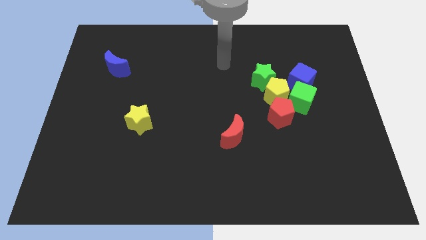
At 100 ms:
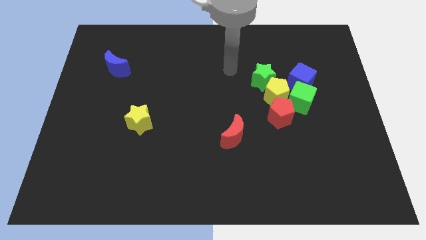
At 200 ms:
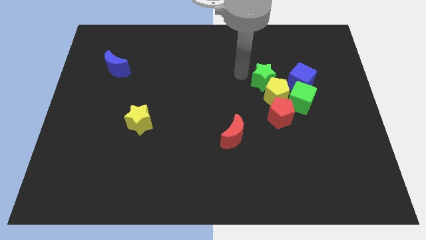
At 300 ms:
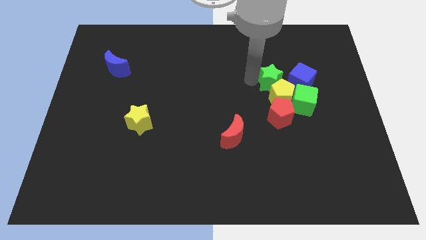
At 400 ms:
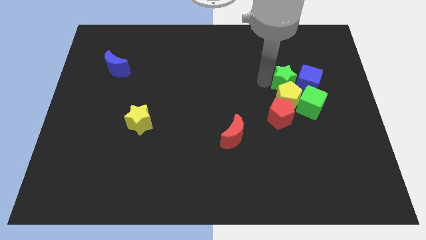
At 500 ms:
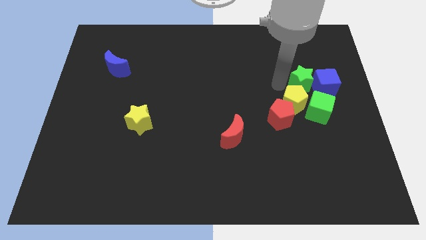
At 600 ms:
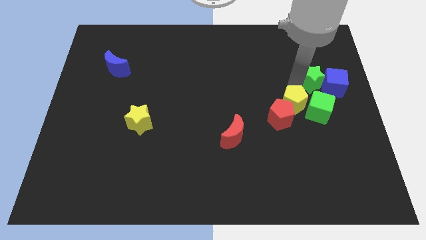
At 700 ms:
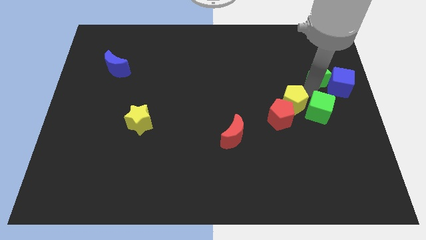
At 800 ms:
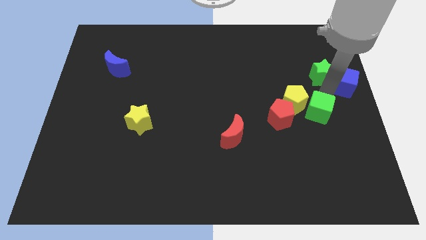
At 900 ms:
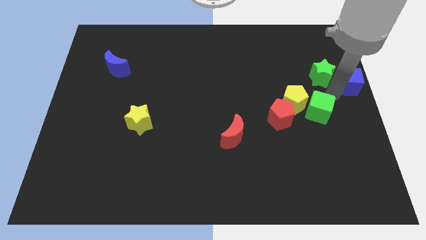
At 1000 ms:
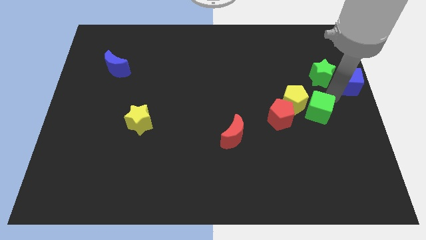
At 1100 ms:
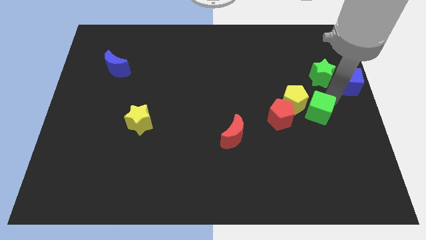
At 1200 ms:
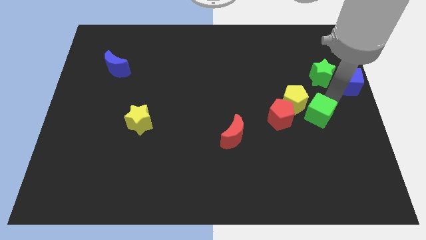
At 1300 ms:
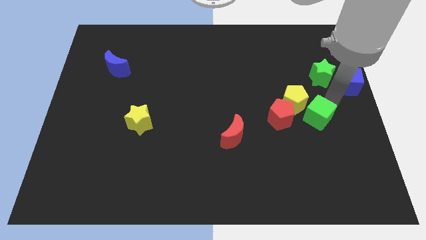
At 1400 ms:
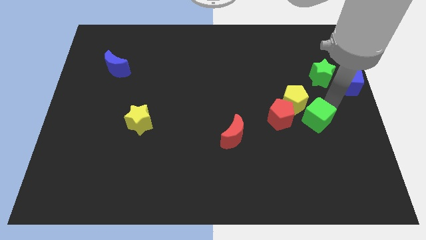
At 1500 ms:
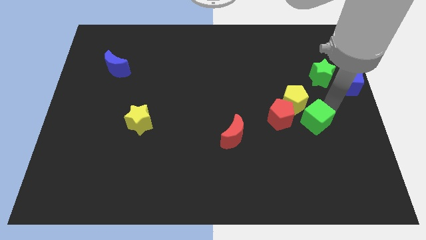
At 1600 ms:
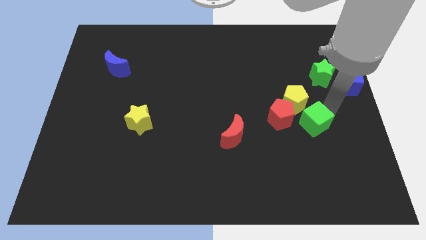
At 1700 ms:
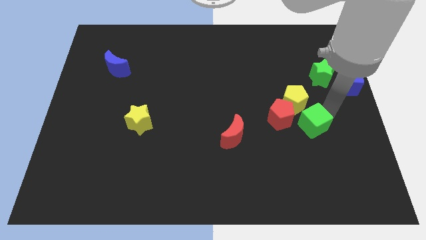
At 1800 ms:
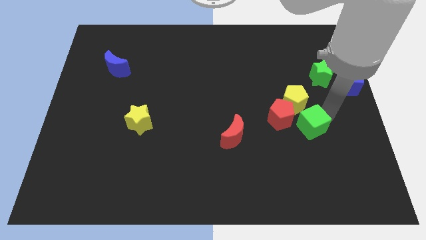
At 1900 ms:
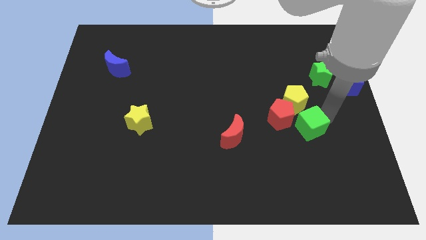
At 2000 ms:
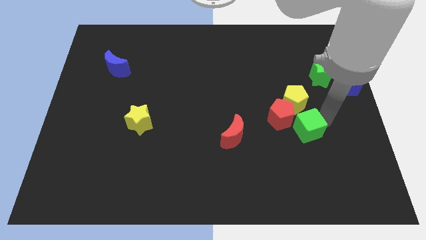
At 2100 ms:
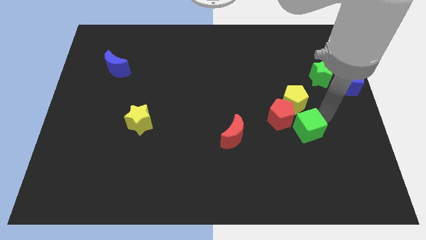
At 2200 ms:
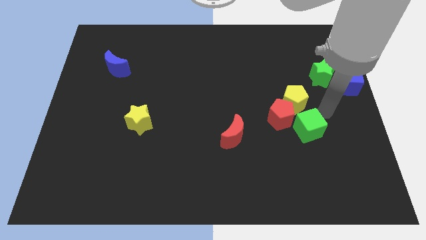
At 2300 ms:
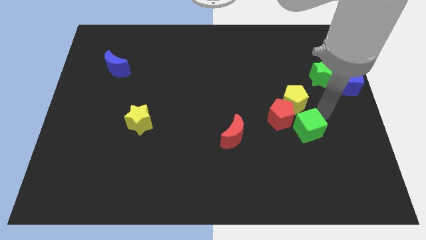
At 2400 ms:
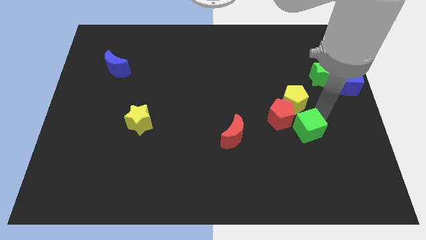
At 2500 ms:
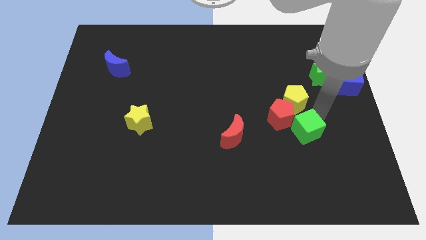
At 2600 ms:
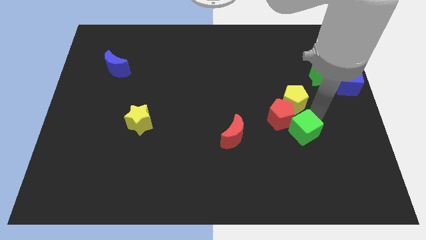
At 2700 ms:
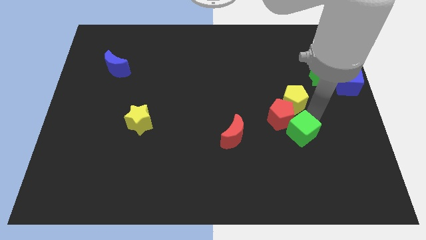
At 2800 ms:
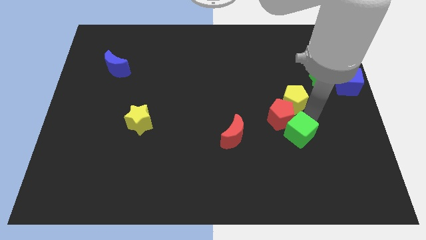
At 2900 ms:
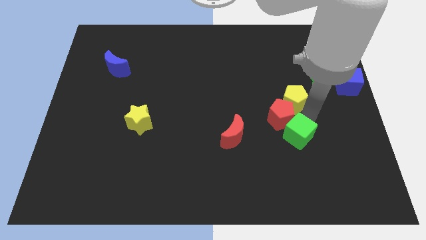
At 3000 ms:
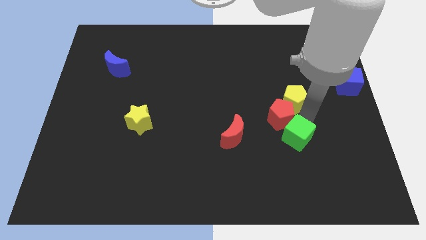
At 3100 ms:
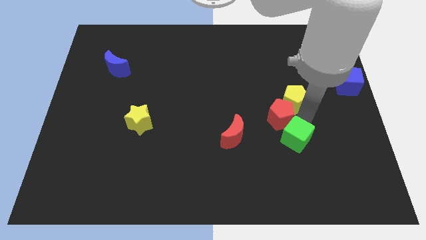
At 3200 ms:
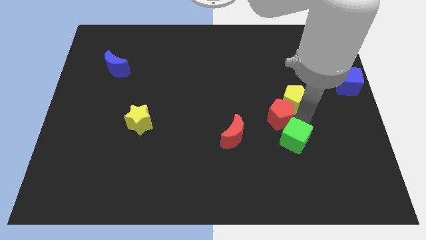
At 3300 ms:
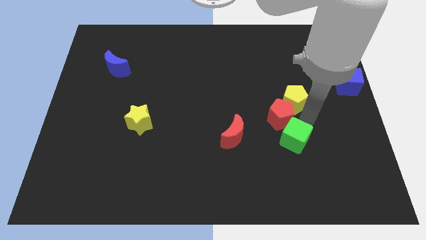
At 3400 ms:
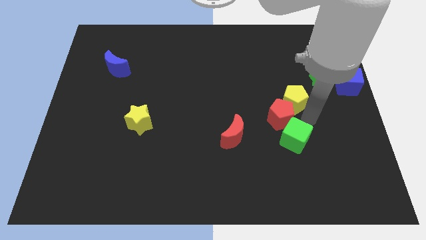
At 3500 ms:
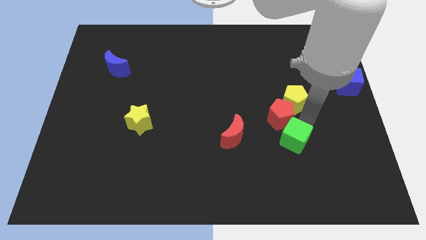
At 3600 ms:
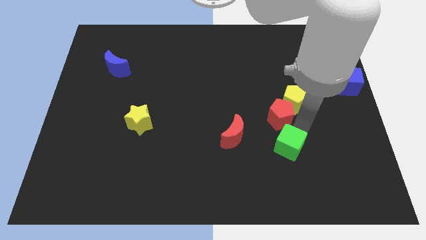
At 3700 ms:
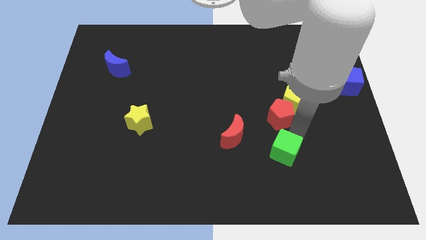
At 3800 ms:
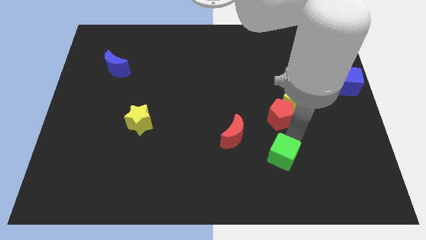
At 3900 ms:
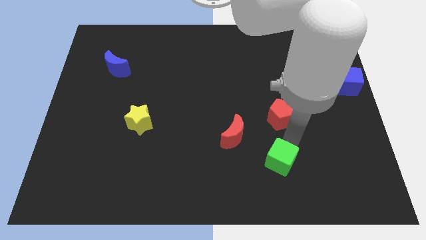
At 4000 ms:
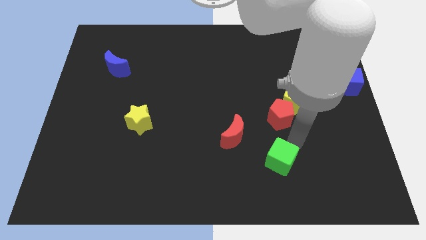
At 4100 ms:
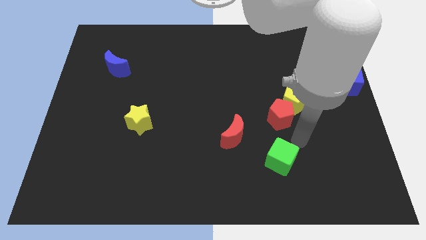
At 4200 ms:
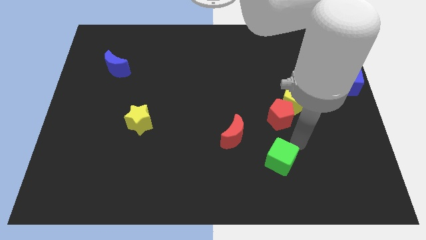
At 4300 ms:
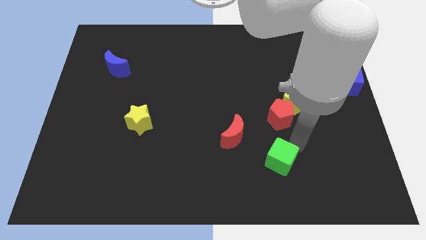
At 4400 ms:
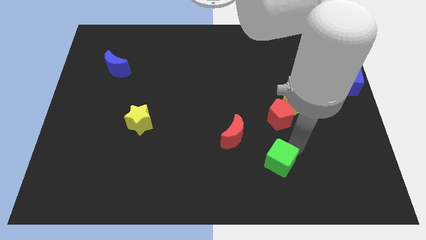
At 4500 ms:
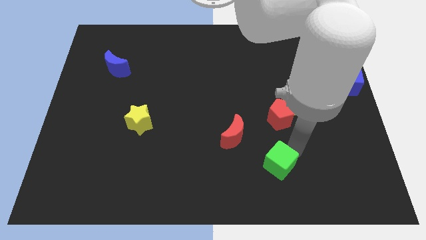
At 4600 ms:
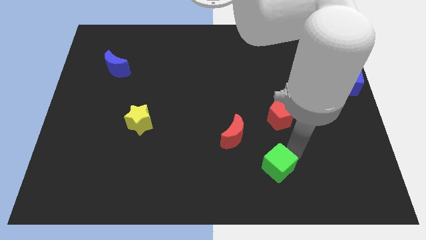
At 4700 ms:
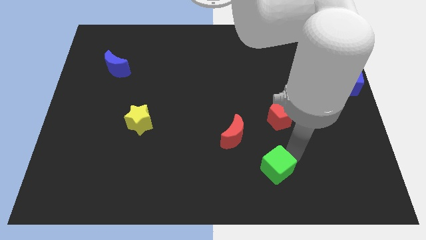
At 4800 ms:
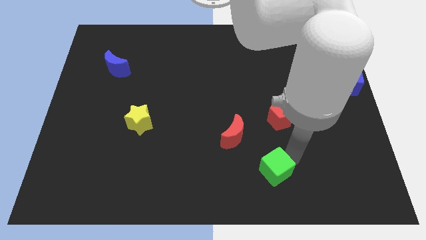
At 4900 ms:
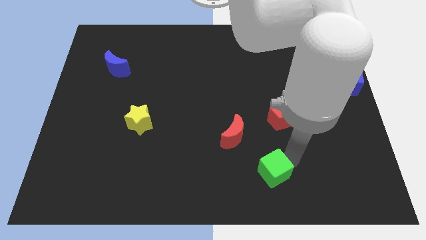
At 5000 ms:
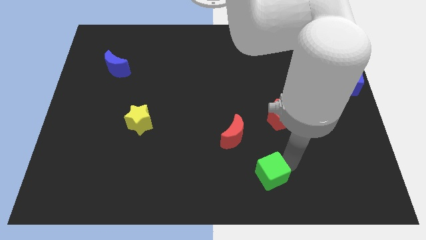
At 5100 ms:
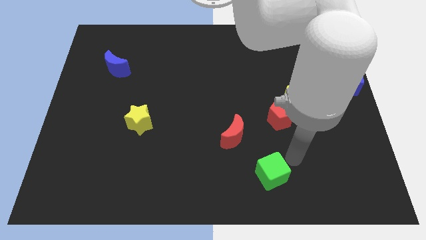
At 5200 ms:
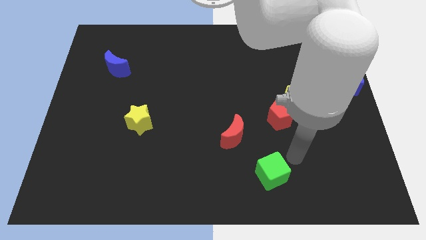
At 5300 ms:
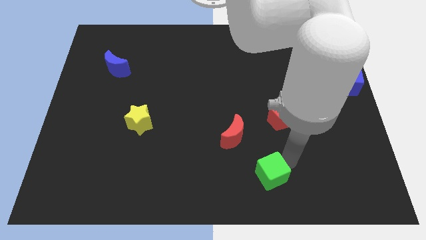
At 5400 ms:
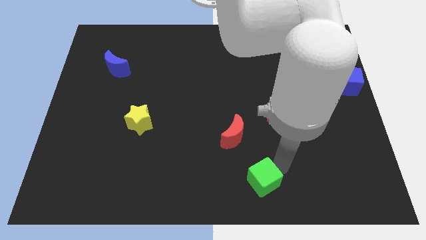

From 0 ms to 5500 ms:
move the green cube to the bottom

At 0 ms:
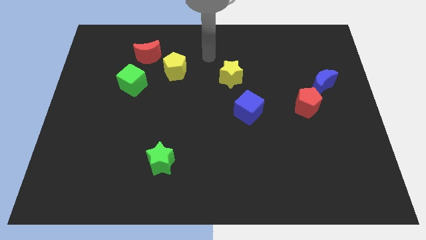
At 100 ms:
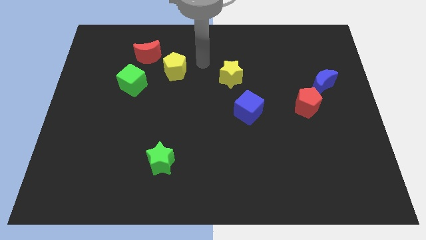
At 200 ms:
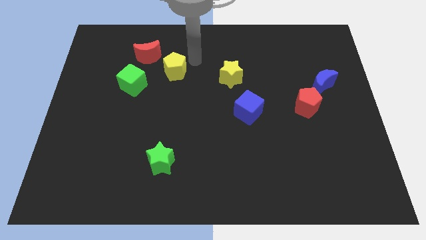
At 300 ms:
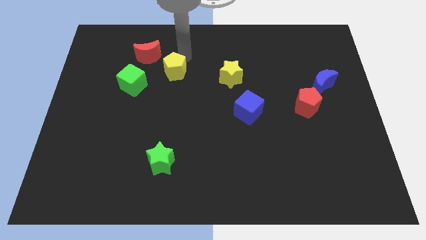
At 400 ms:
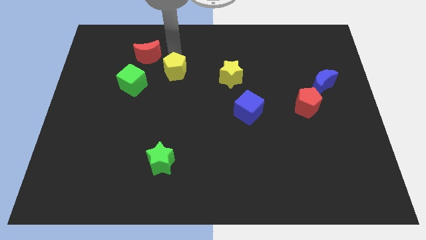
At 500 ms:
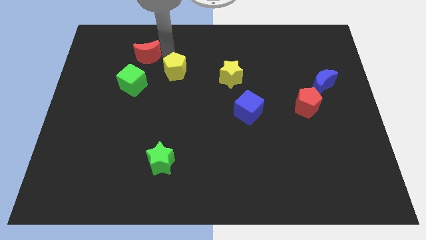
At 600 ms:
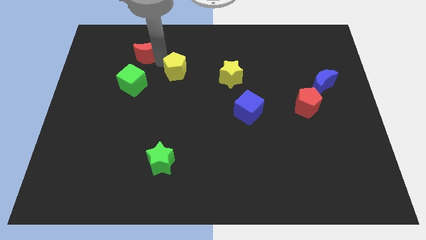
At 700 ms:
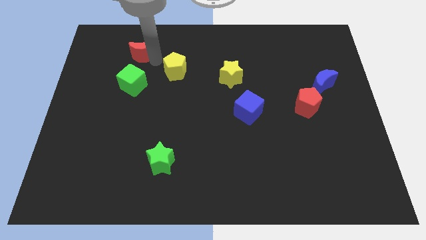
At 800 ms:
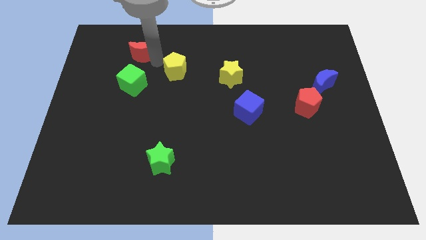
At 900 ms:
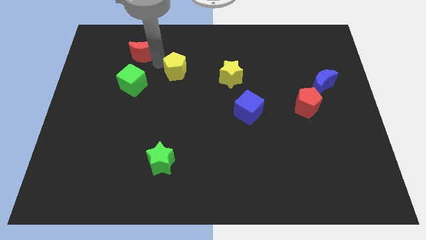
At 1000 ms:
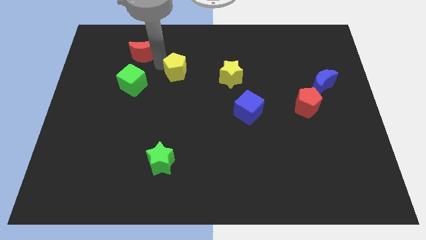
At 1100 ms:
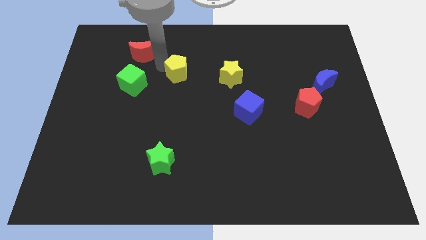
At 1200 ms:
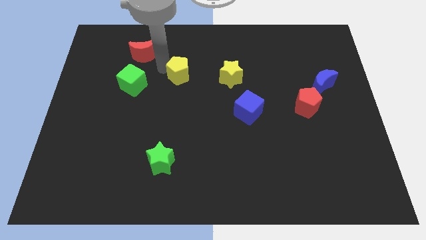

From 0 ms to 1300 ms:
push the yellow pentagon to the middle of the board
